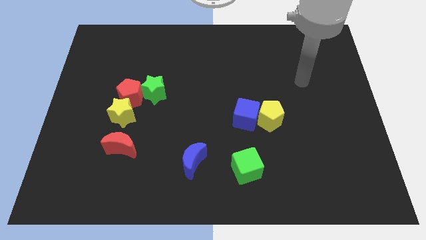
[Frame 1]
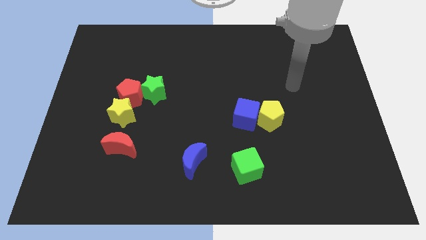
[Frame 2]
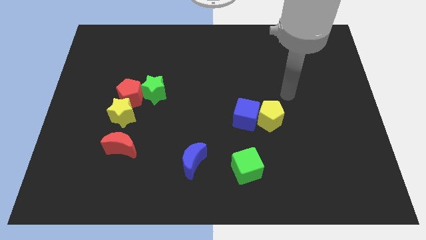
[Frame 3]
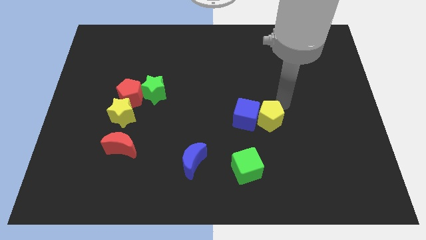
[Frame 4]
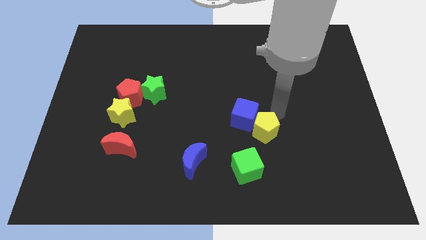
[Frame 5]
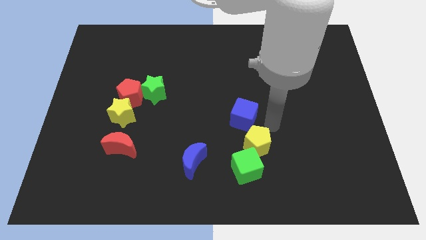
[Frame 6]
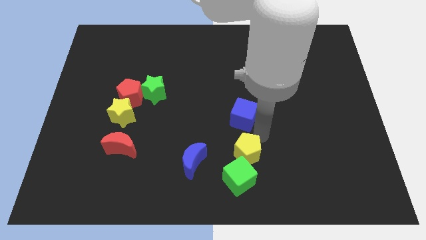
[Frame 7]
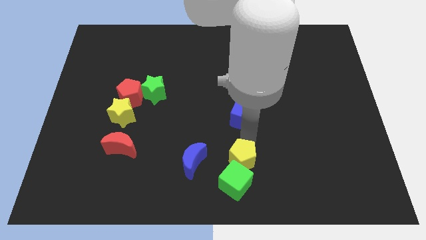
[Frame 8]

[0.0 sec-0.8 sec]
move the blue cube away from the yellow pentagon

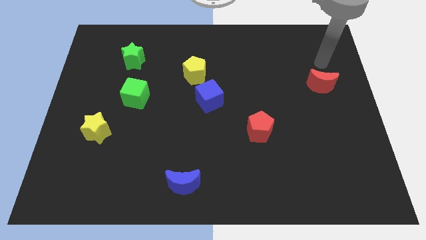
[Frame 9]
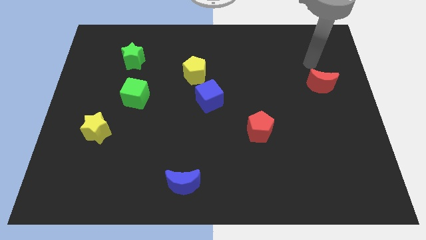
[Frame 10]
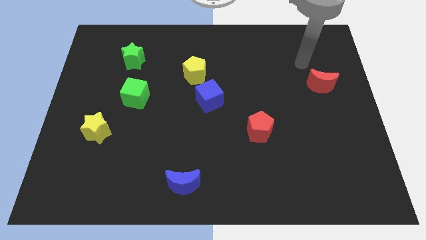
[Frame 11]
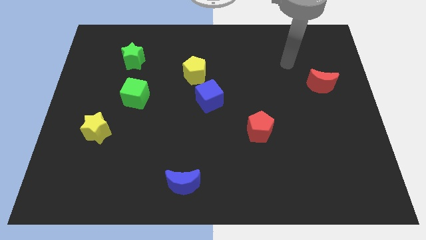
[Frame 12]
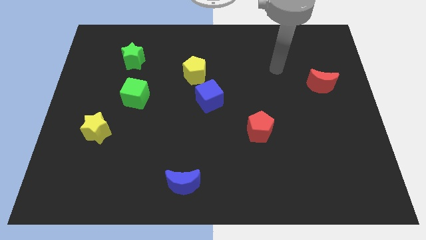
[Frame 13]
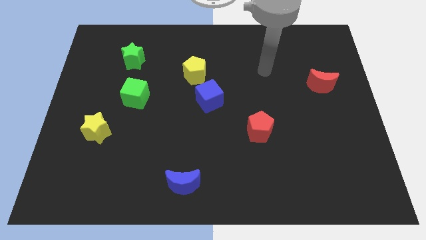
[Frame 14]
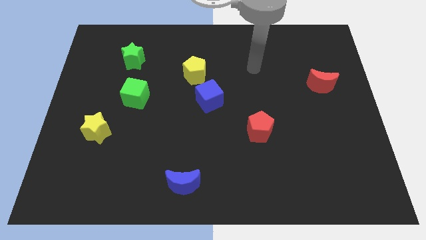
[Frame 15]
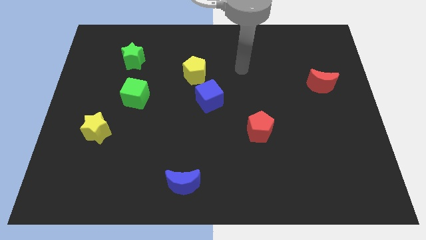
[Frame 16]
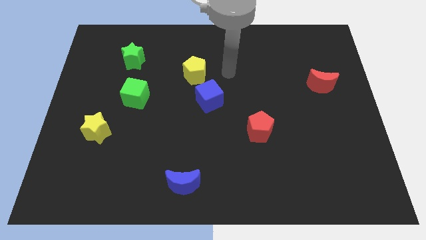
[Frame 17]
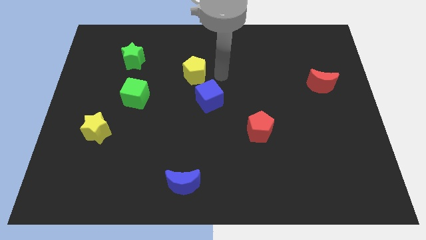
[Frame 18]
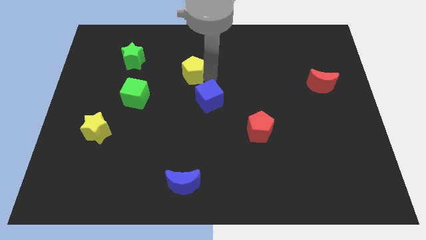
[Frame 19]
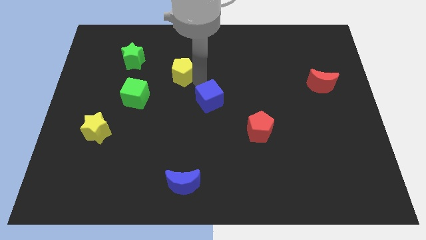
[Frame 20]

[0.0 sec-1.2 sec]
separate the blue cube from the yellow pentagon

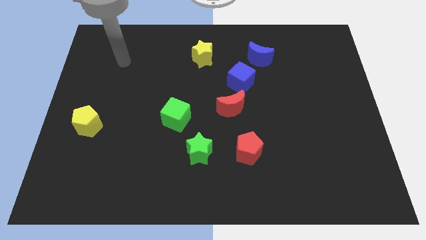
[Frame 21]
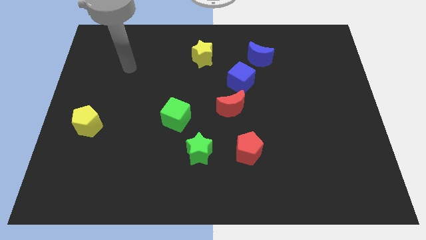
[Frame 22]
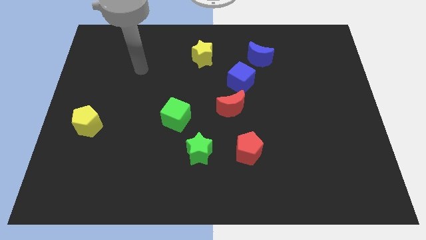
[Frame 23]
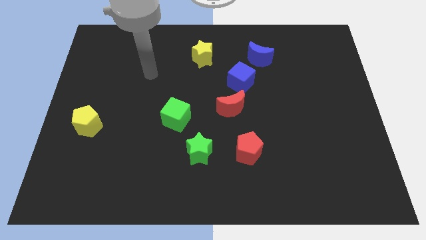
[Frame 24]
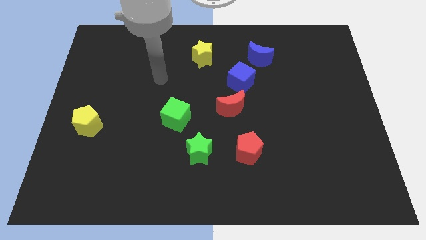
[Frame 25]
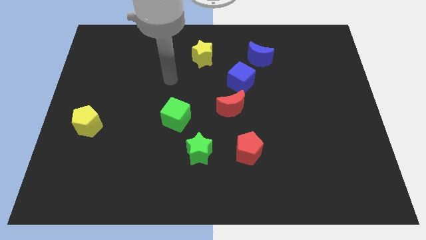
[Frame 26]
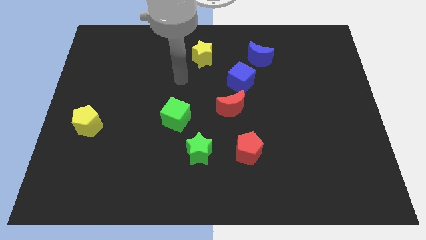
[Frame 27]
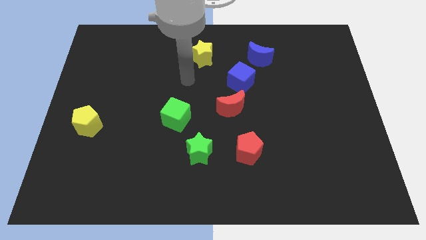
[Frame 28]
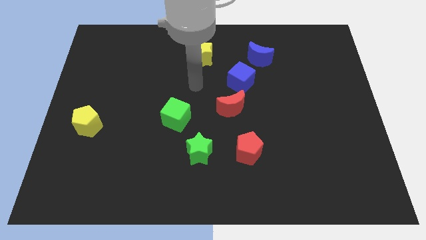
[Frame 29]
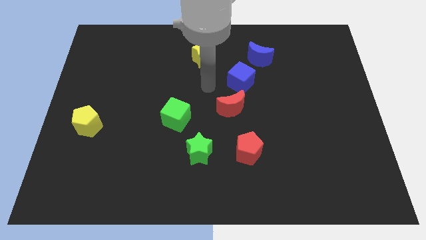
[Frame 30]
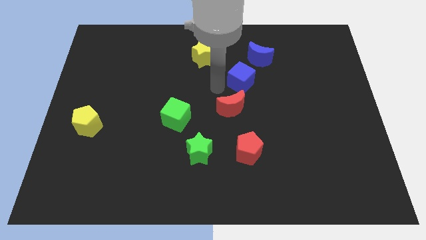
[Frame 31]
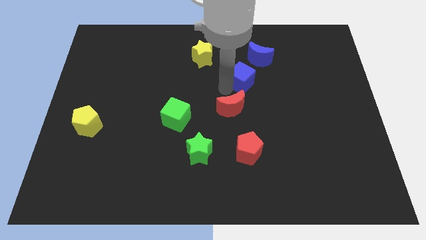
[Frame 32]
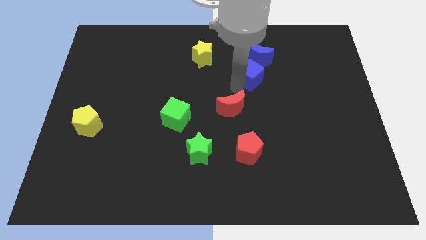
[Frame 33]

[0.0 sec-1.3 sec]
pull the red moon apart from the blue cube

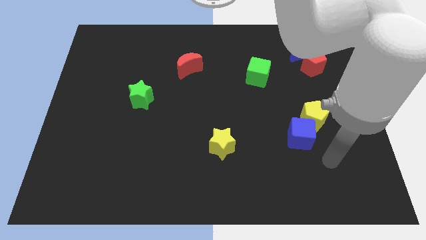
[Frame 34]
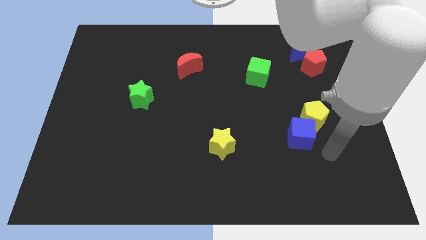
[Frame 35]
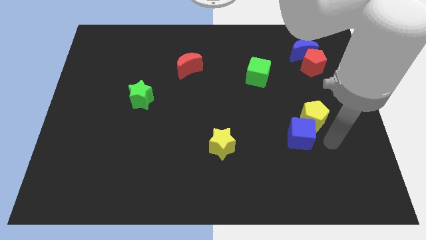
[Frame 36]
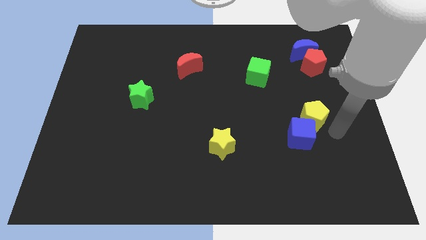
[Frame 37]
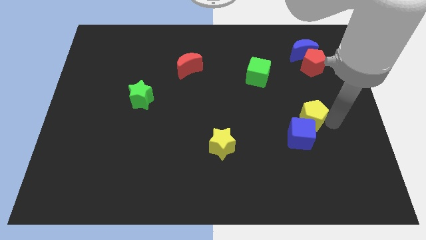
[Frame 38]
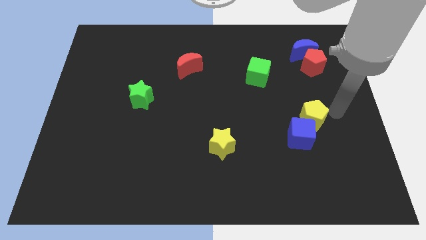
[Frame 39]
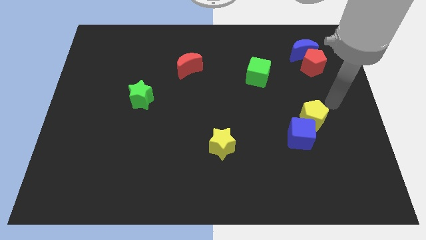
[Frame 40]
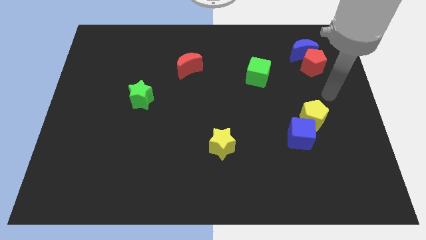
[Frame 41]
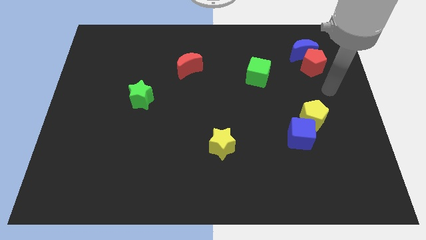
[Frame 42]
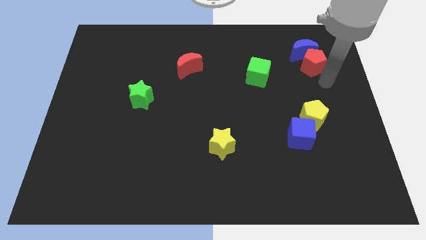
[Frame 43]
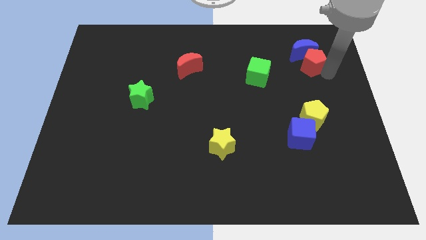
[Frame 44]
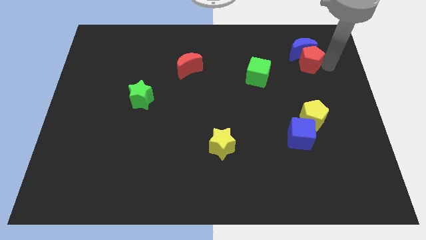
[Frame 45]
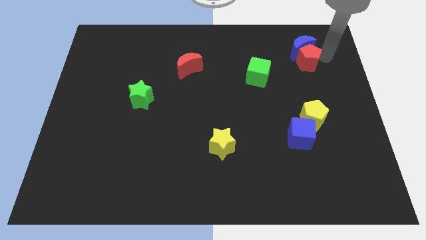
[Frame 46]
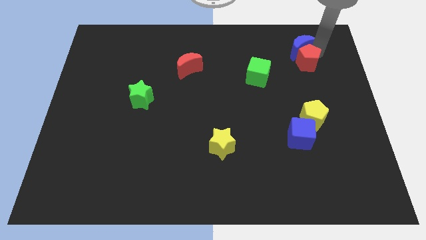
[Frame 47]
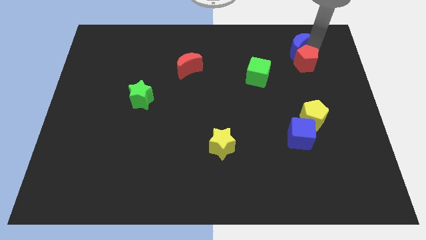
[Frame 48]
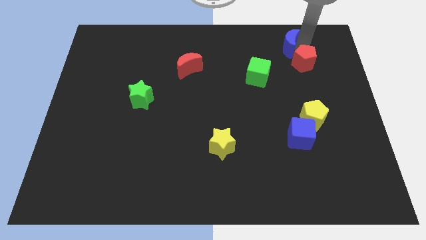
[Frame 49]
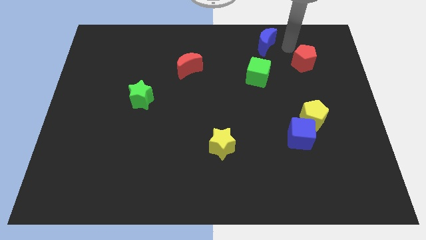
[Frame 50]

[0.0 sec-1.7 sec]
pull the red pentagon apart from the blue moon

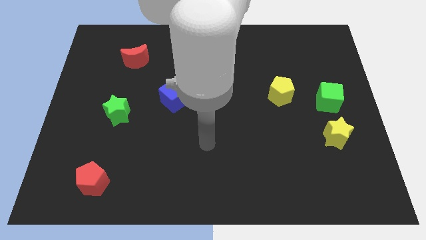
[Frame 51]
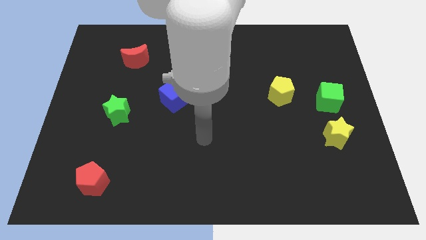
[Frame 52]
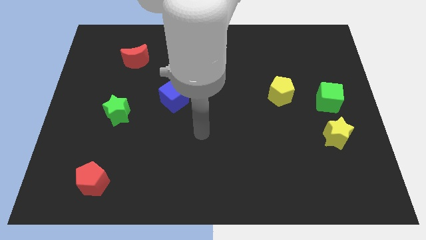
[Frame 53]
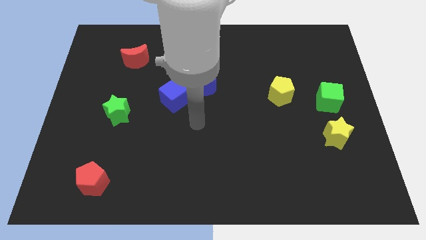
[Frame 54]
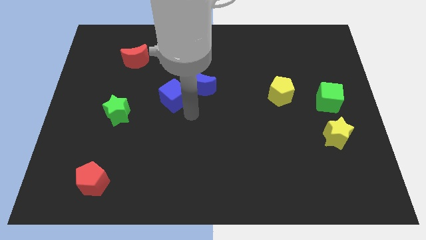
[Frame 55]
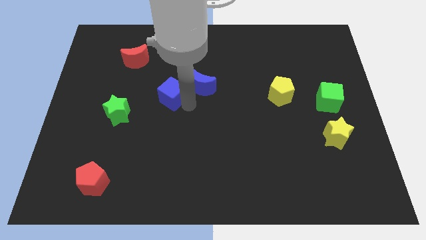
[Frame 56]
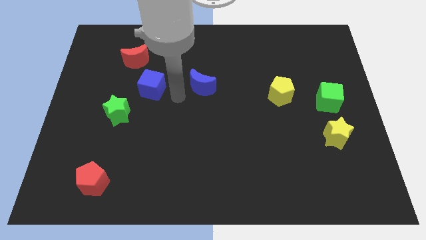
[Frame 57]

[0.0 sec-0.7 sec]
move the blue moon away from the blue cube

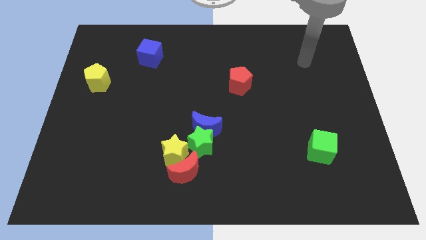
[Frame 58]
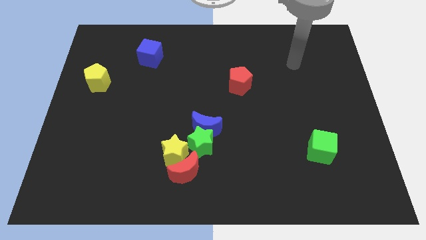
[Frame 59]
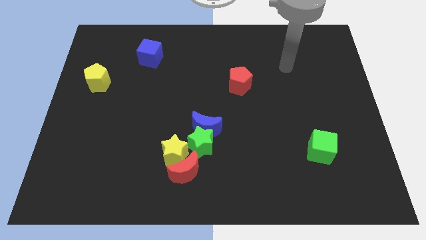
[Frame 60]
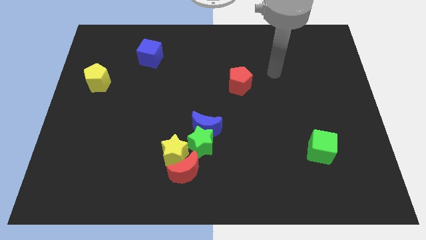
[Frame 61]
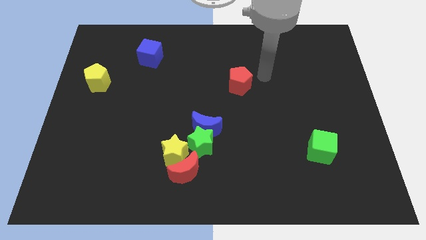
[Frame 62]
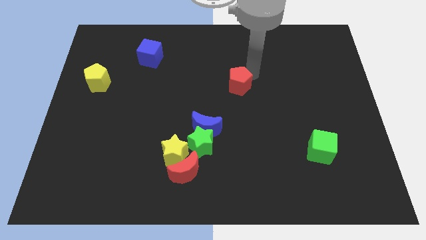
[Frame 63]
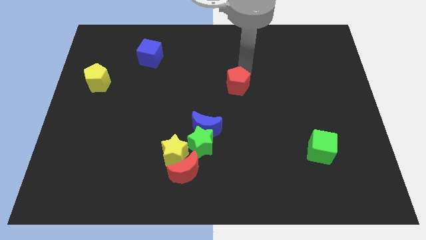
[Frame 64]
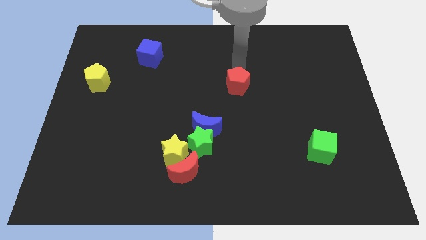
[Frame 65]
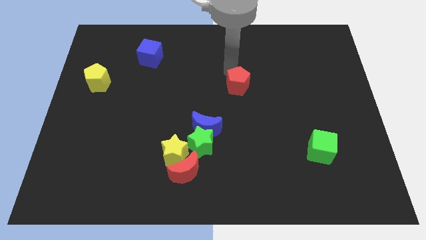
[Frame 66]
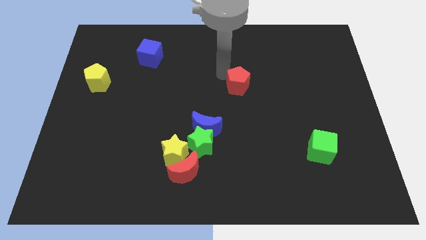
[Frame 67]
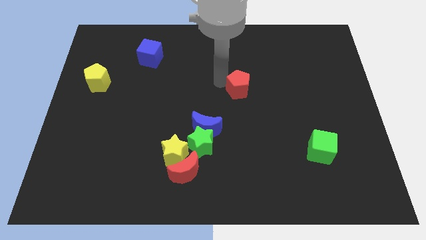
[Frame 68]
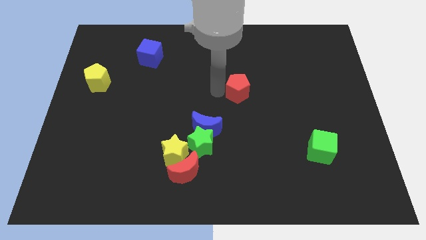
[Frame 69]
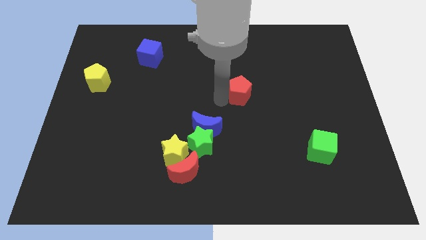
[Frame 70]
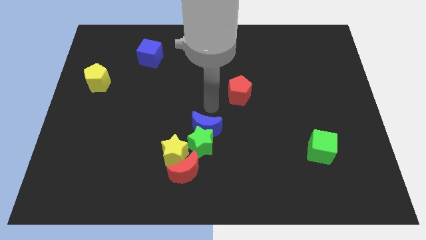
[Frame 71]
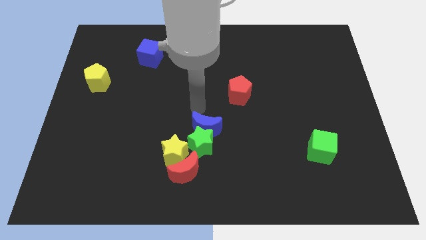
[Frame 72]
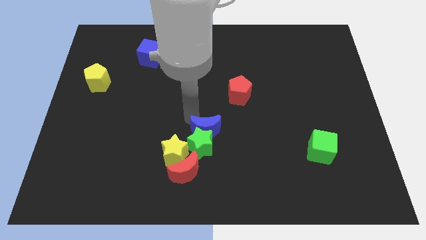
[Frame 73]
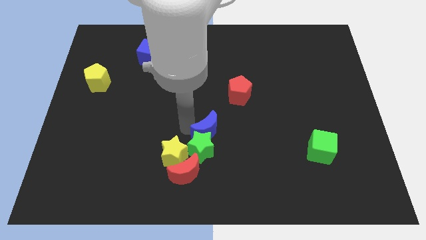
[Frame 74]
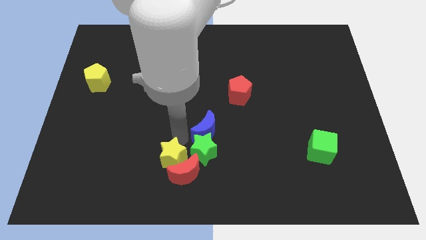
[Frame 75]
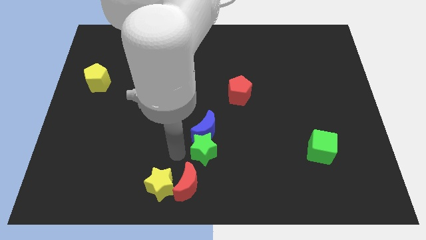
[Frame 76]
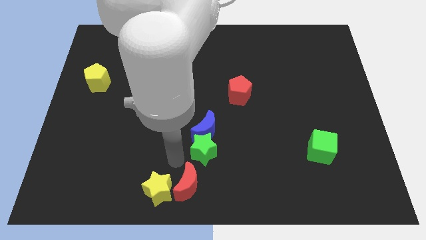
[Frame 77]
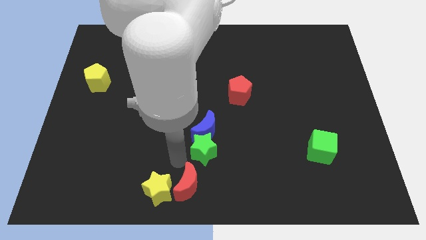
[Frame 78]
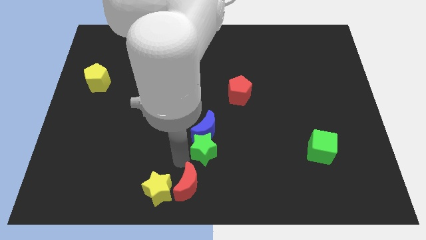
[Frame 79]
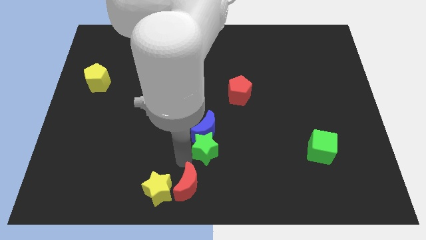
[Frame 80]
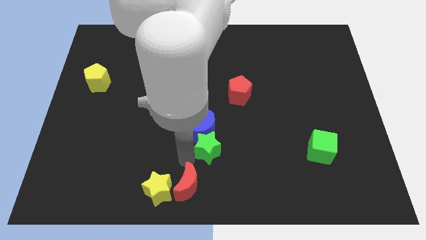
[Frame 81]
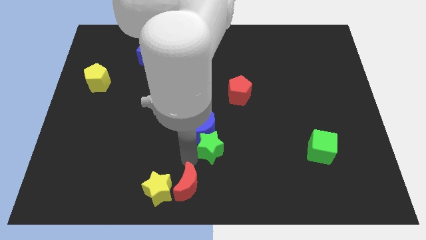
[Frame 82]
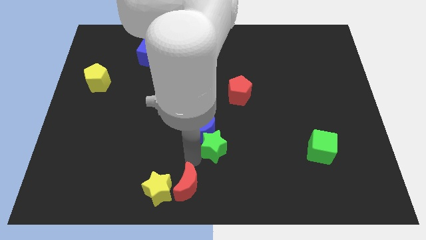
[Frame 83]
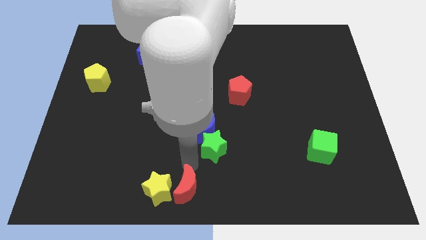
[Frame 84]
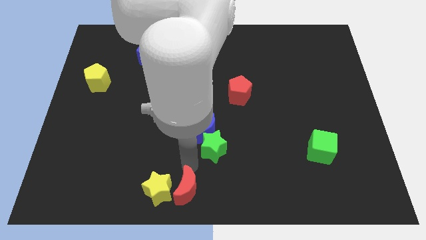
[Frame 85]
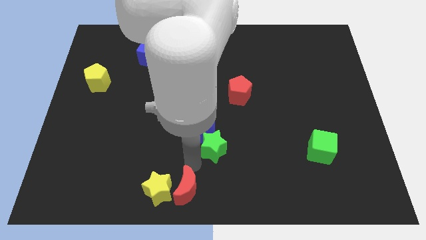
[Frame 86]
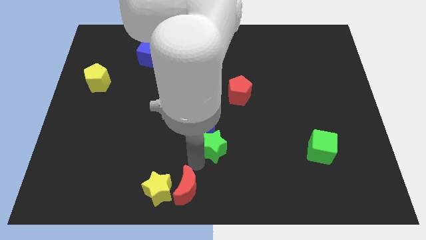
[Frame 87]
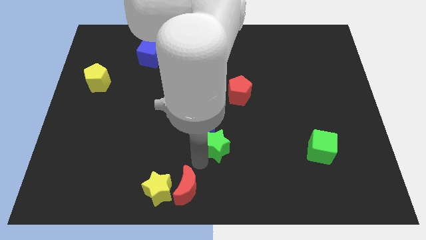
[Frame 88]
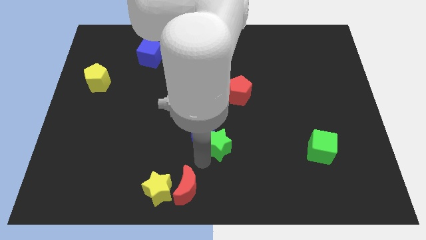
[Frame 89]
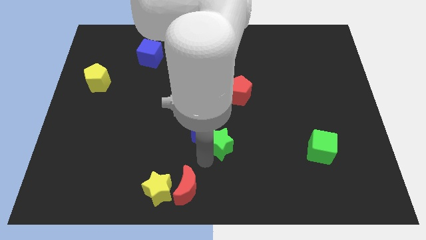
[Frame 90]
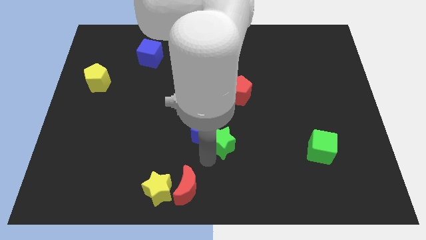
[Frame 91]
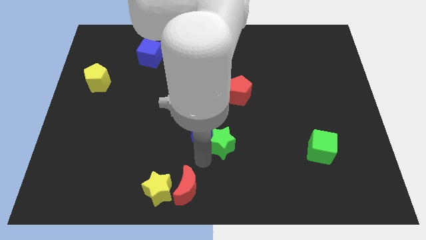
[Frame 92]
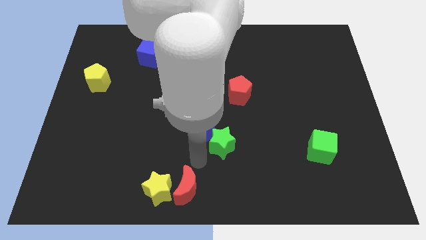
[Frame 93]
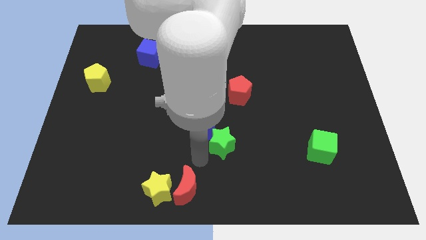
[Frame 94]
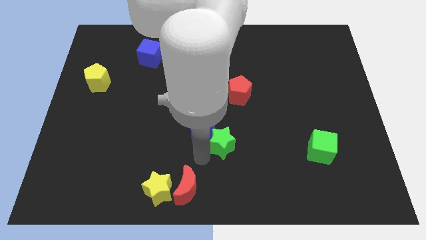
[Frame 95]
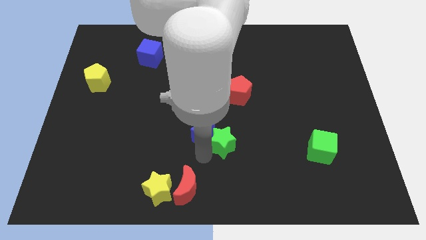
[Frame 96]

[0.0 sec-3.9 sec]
move the green star away from the group
